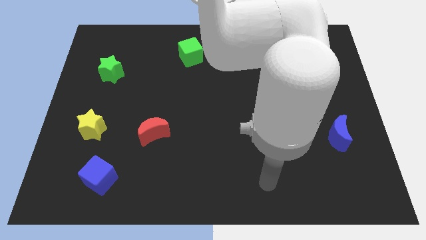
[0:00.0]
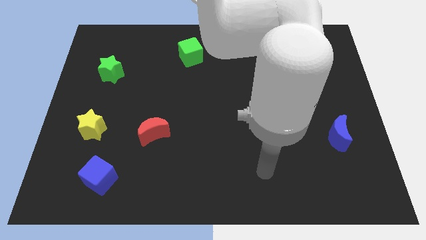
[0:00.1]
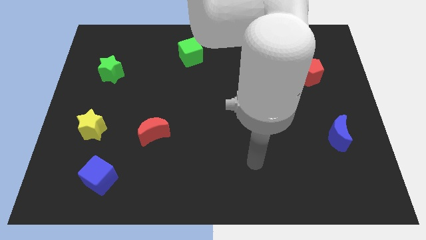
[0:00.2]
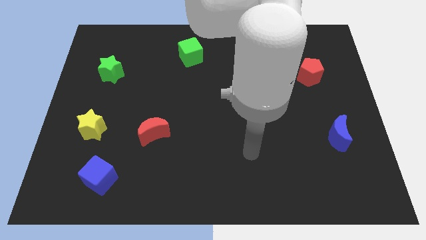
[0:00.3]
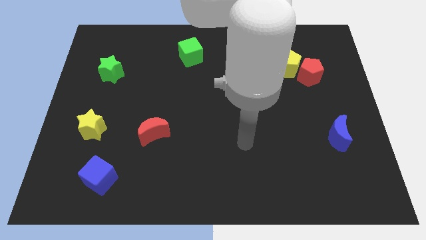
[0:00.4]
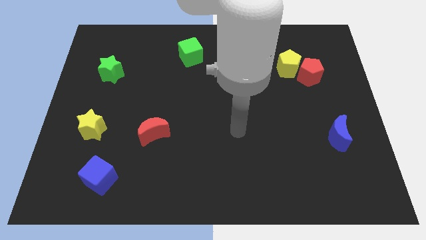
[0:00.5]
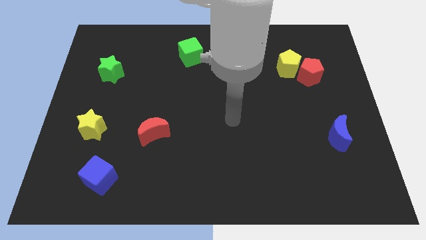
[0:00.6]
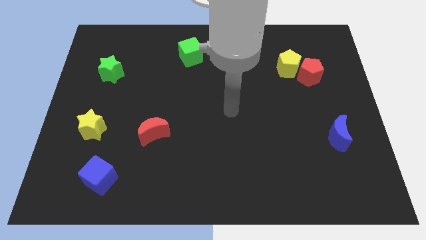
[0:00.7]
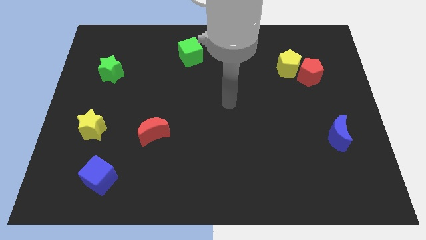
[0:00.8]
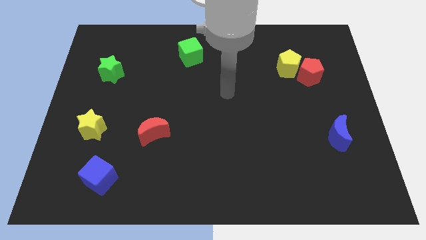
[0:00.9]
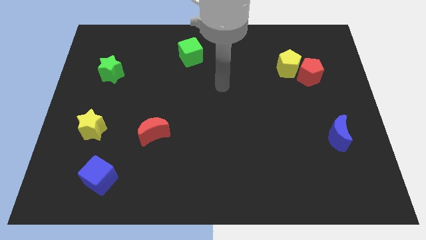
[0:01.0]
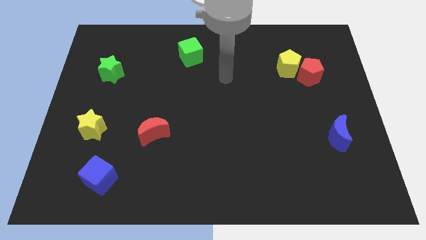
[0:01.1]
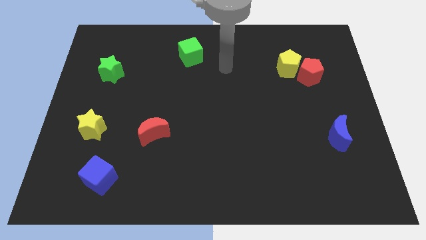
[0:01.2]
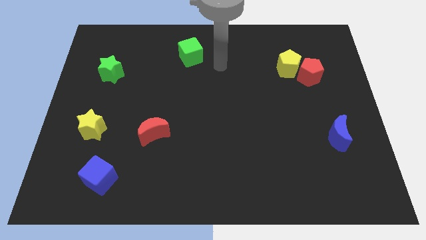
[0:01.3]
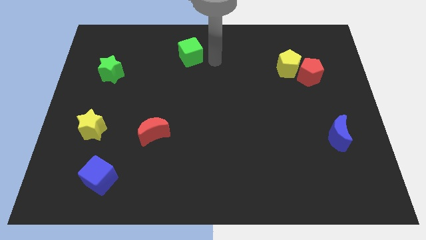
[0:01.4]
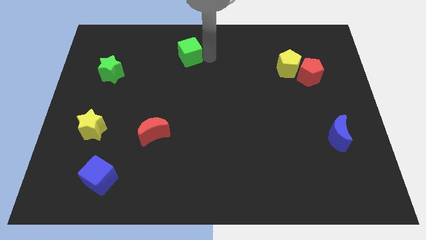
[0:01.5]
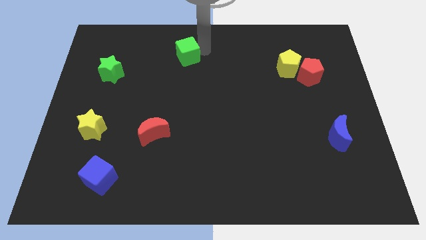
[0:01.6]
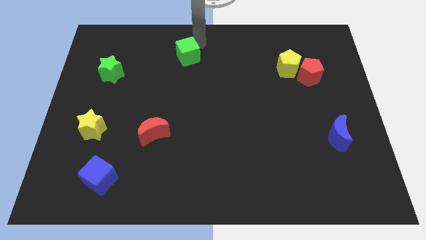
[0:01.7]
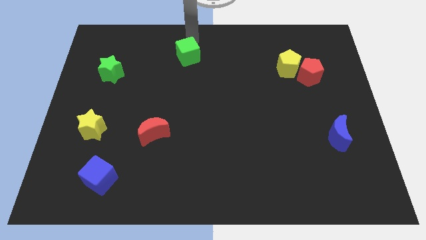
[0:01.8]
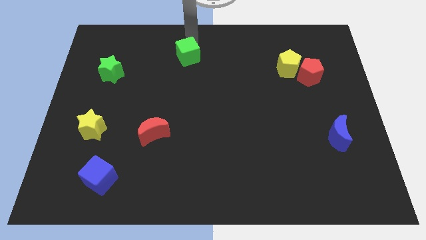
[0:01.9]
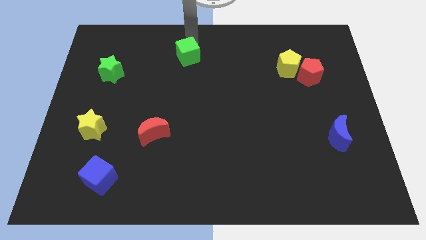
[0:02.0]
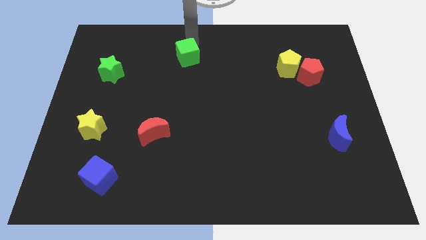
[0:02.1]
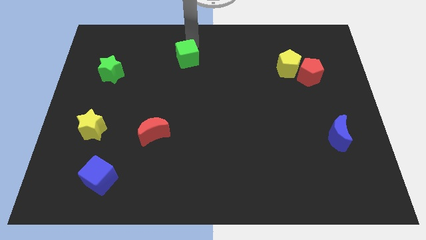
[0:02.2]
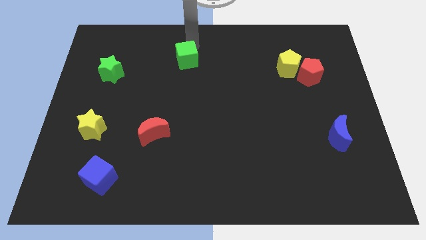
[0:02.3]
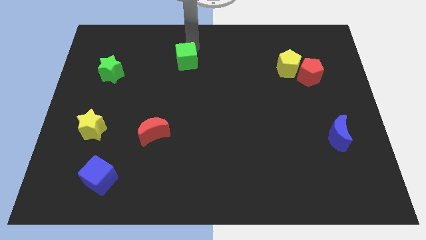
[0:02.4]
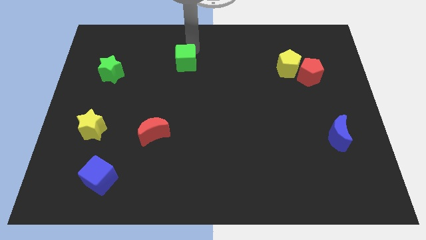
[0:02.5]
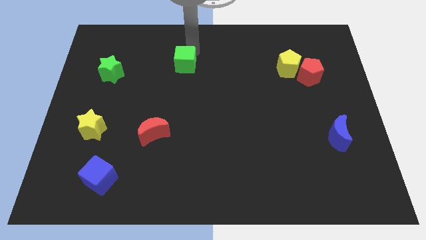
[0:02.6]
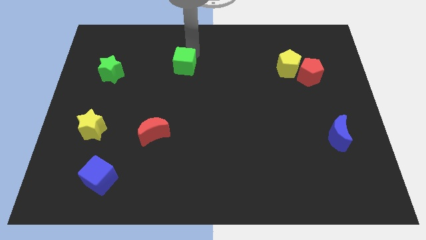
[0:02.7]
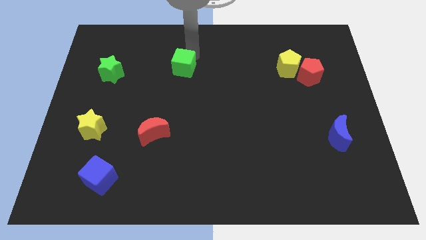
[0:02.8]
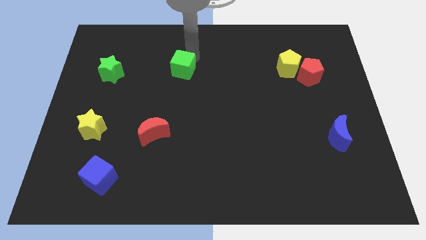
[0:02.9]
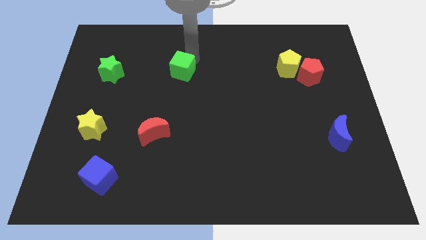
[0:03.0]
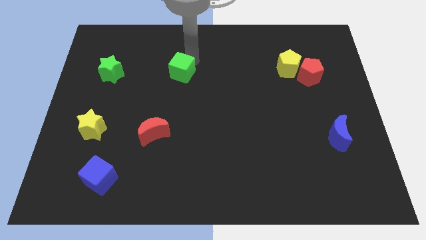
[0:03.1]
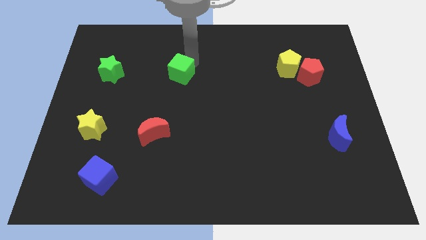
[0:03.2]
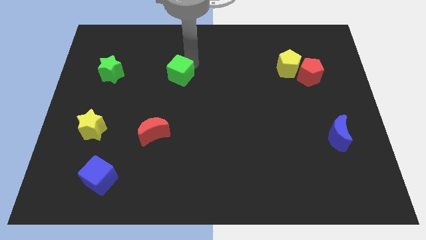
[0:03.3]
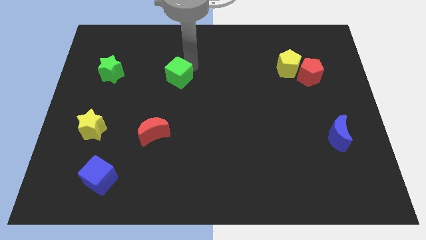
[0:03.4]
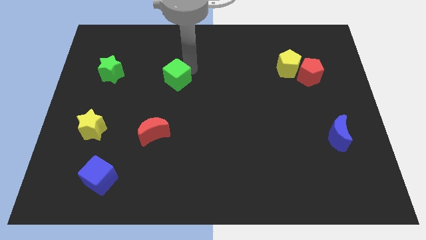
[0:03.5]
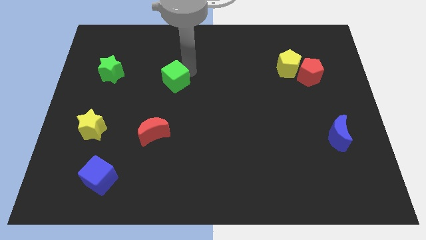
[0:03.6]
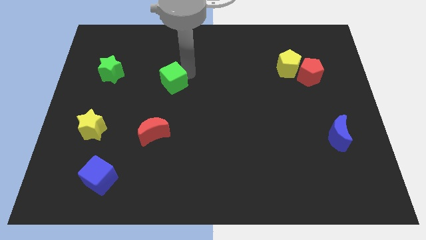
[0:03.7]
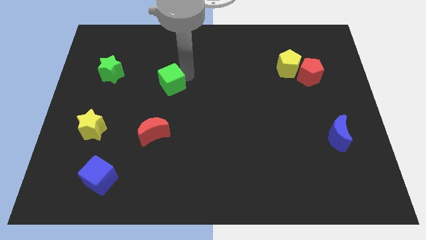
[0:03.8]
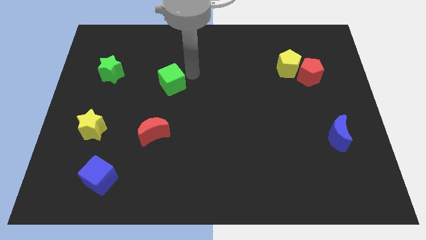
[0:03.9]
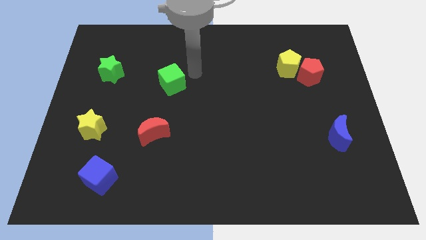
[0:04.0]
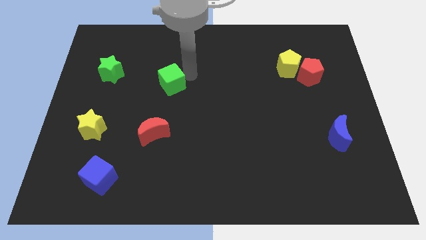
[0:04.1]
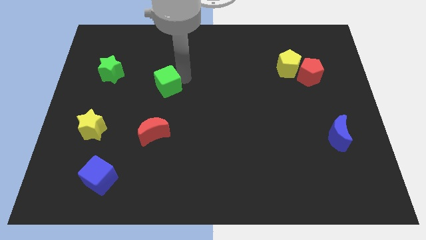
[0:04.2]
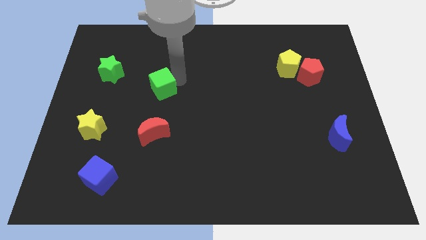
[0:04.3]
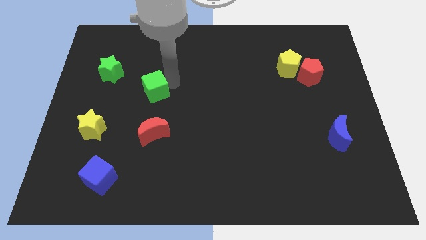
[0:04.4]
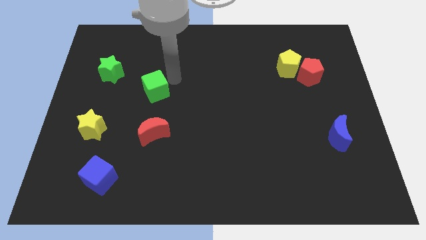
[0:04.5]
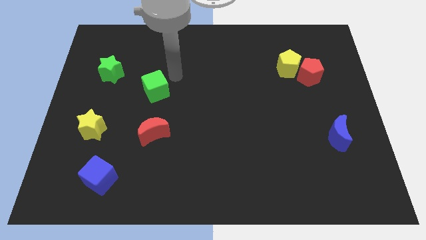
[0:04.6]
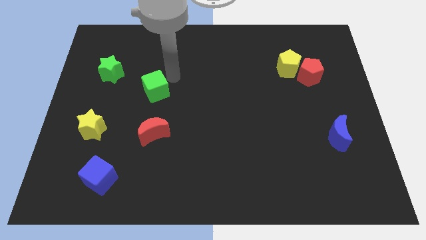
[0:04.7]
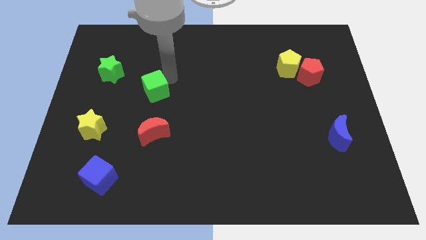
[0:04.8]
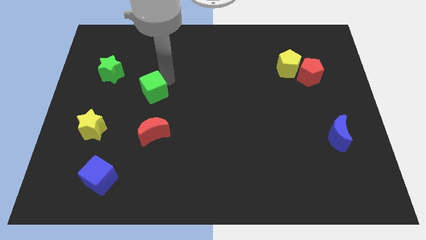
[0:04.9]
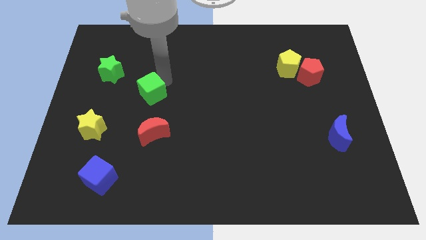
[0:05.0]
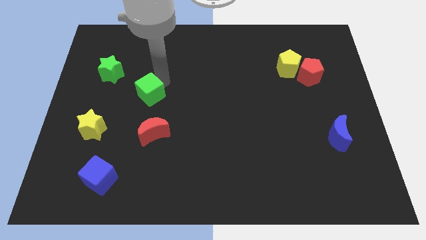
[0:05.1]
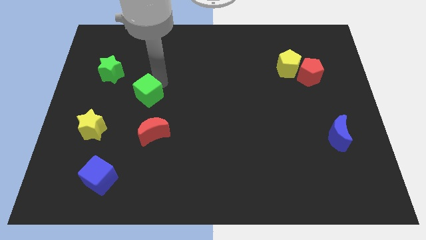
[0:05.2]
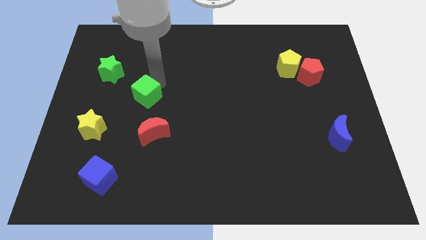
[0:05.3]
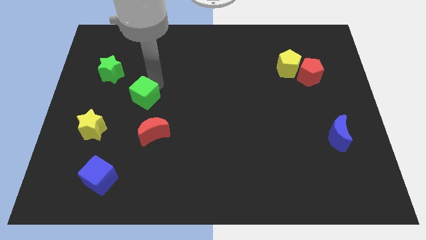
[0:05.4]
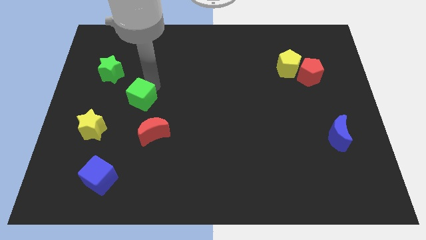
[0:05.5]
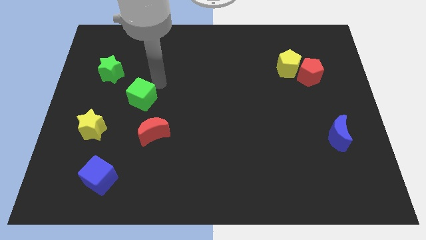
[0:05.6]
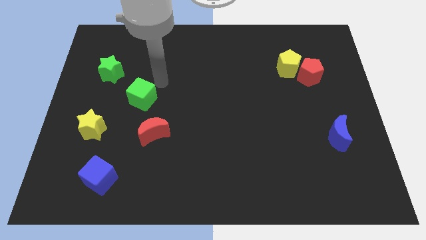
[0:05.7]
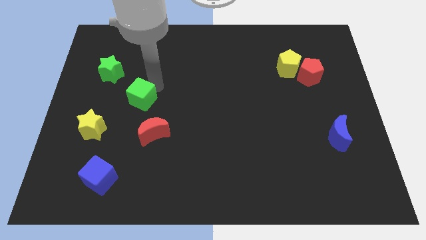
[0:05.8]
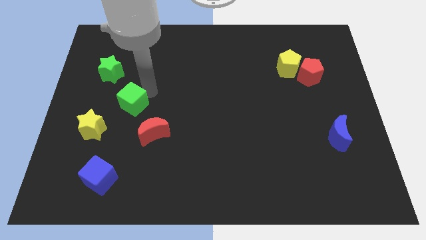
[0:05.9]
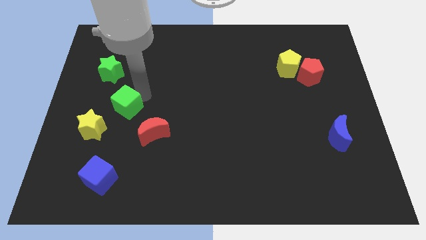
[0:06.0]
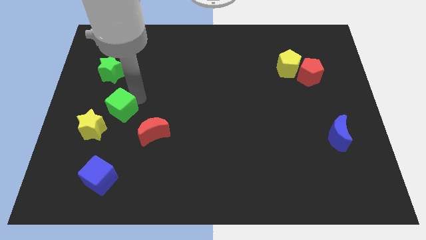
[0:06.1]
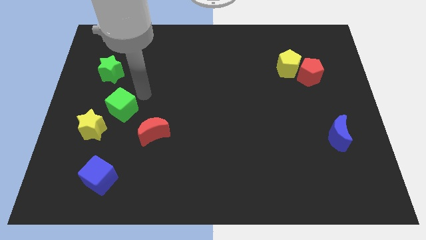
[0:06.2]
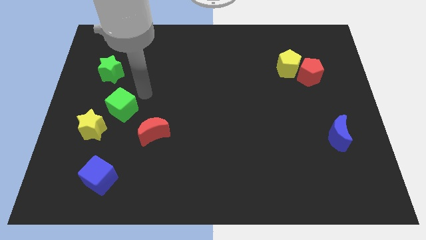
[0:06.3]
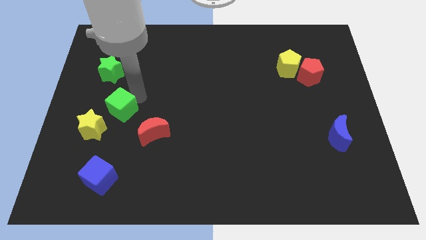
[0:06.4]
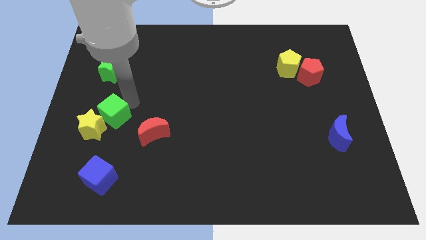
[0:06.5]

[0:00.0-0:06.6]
push the green cube close to the yellow star

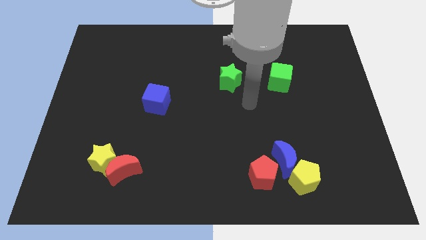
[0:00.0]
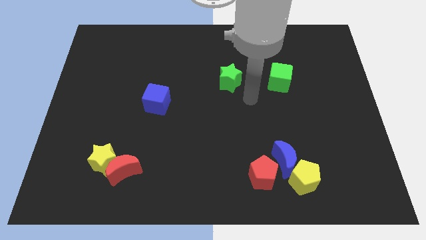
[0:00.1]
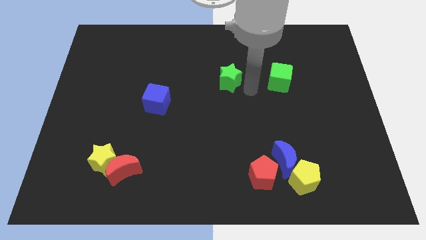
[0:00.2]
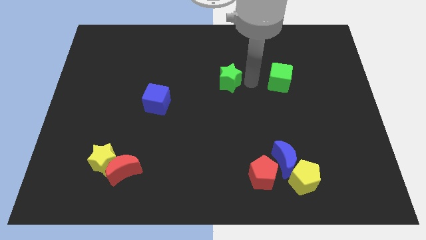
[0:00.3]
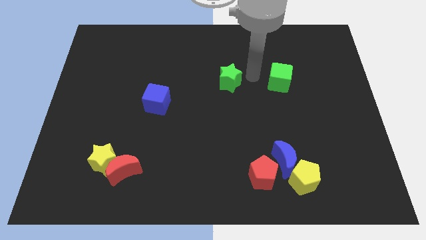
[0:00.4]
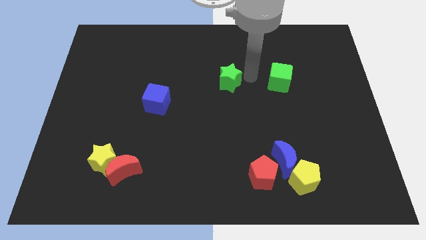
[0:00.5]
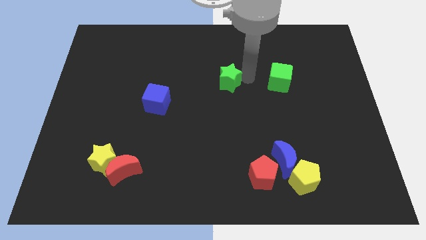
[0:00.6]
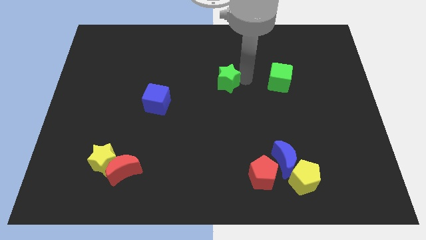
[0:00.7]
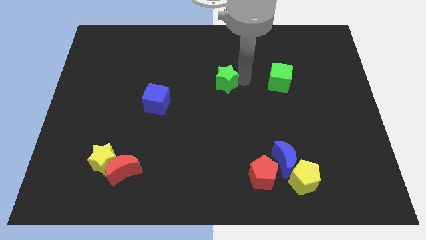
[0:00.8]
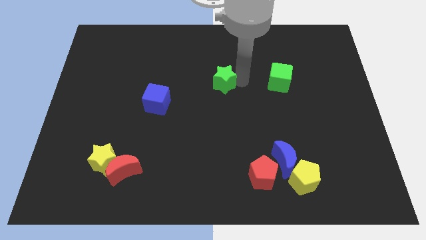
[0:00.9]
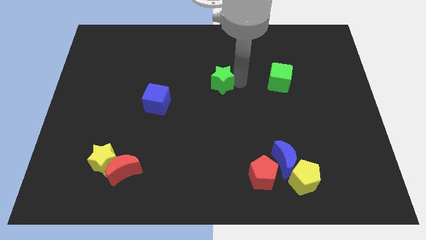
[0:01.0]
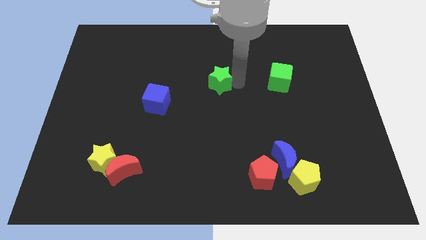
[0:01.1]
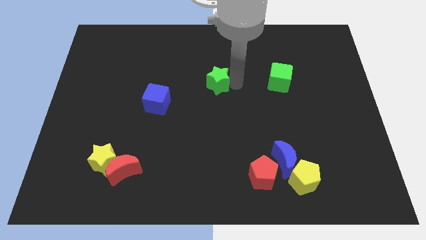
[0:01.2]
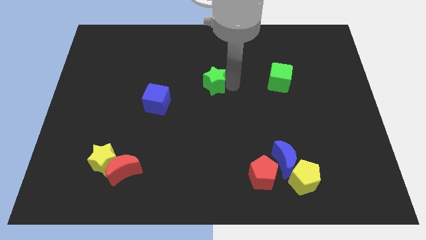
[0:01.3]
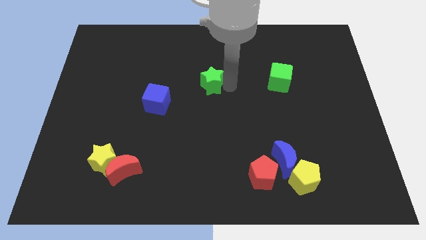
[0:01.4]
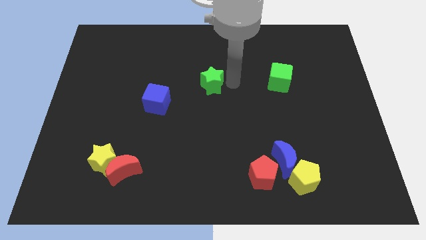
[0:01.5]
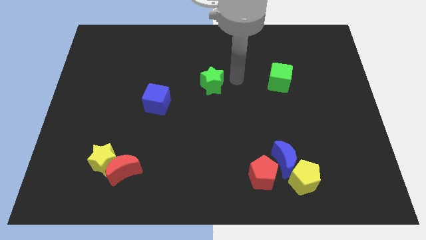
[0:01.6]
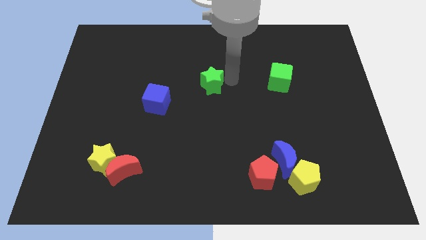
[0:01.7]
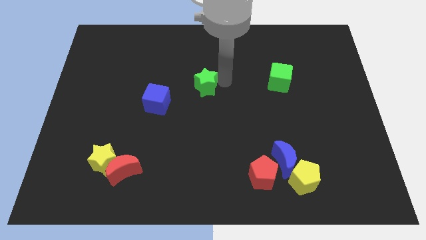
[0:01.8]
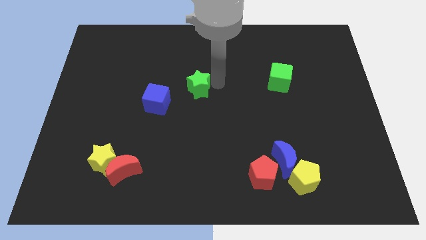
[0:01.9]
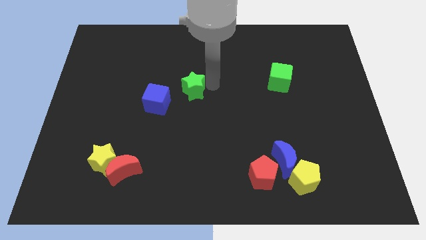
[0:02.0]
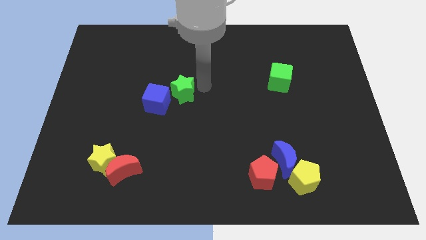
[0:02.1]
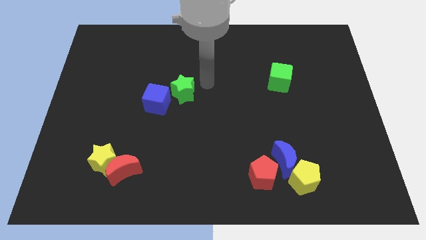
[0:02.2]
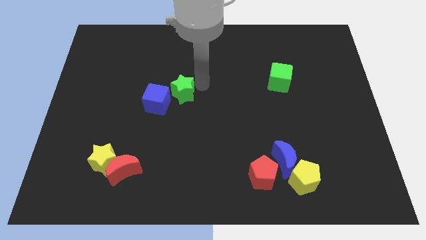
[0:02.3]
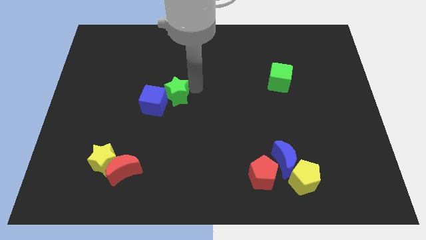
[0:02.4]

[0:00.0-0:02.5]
slide the green star close to the blue cube
